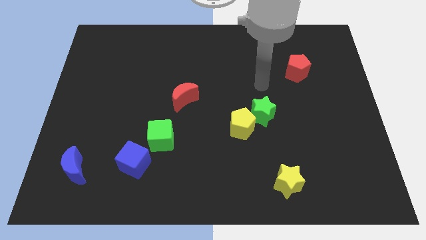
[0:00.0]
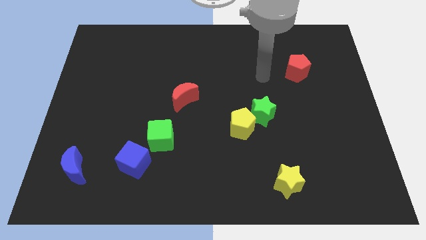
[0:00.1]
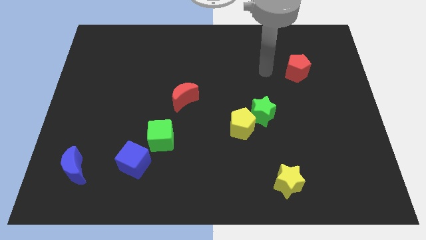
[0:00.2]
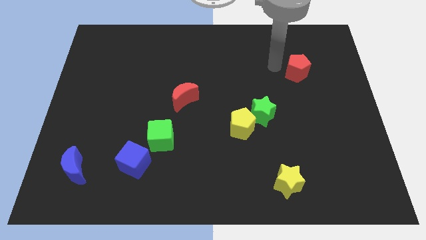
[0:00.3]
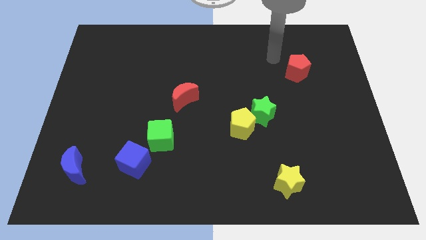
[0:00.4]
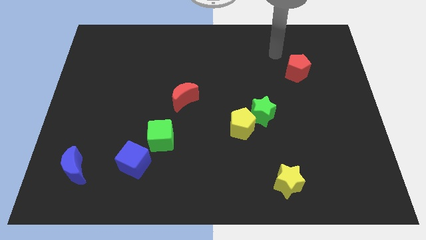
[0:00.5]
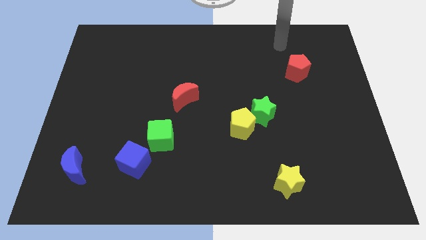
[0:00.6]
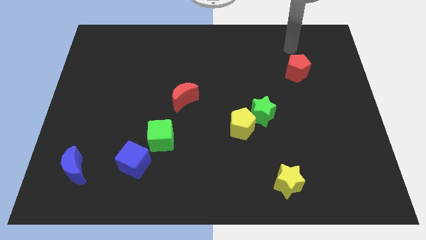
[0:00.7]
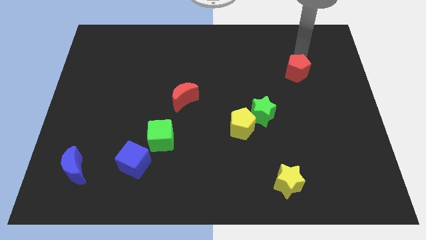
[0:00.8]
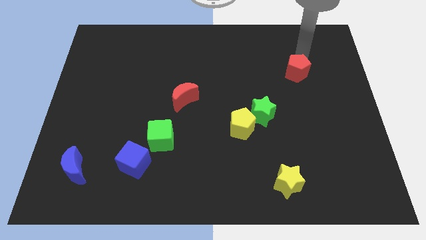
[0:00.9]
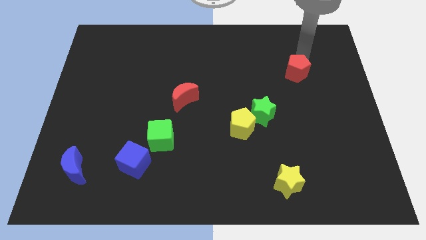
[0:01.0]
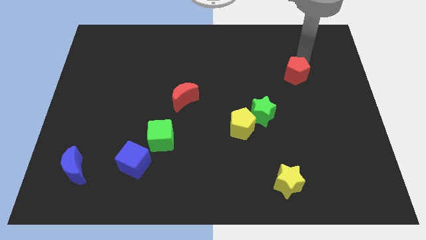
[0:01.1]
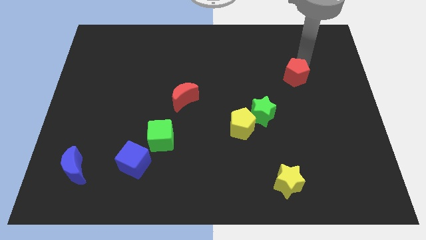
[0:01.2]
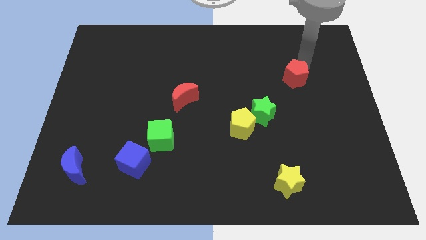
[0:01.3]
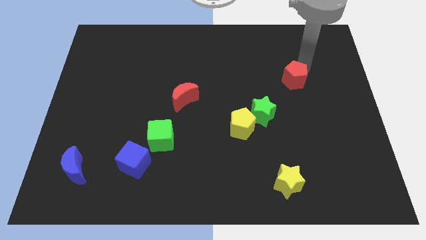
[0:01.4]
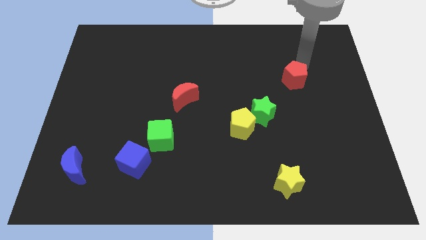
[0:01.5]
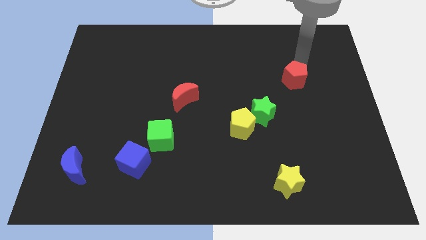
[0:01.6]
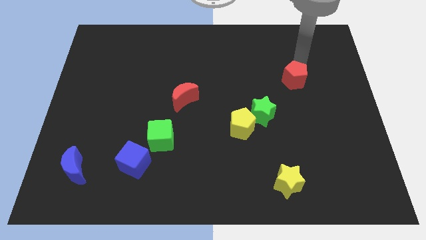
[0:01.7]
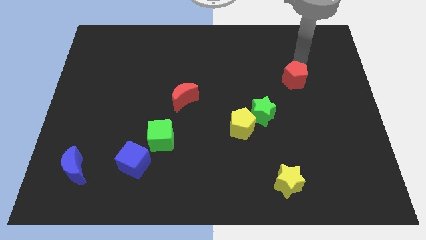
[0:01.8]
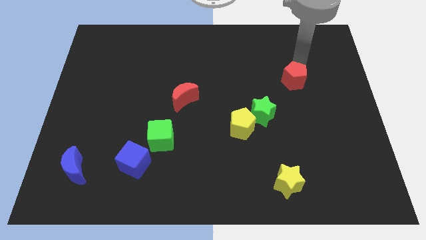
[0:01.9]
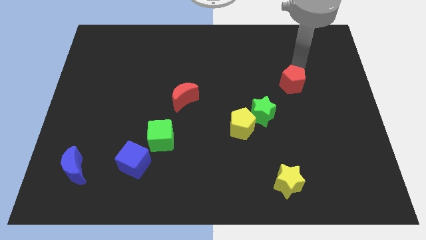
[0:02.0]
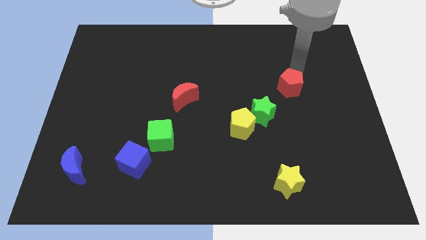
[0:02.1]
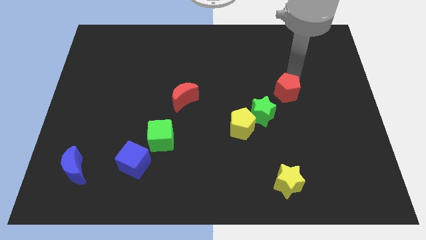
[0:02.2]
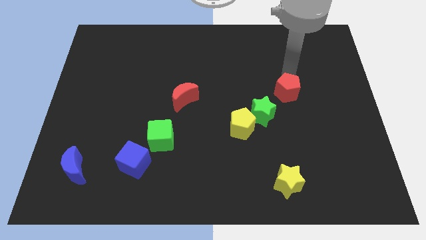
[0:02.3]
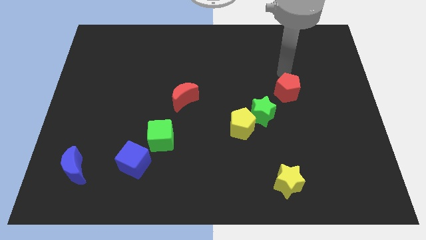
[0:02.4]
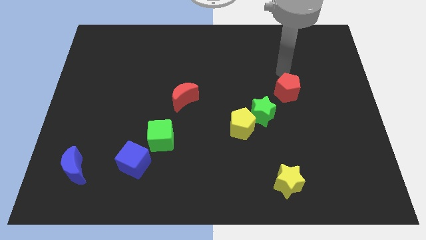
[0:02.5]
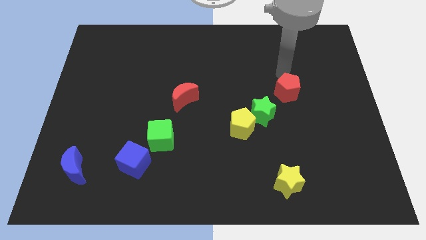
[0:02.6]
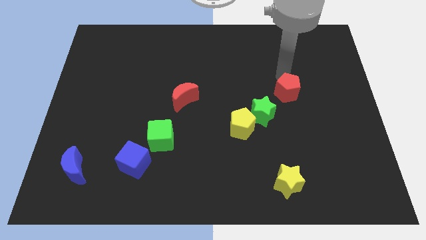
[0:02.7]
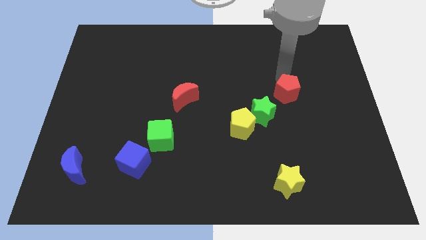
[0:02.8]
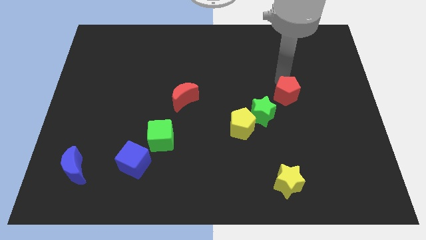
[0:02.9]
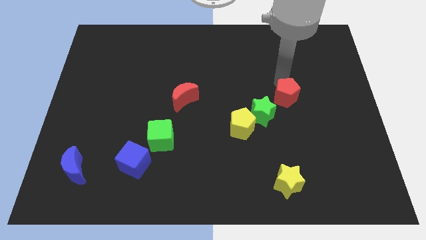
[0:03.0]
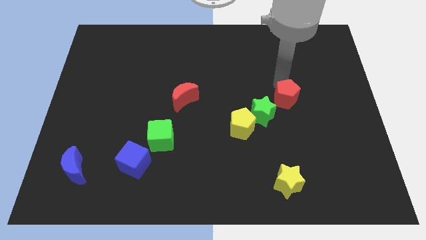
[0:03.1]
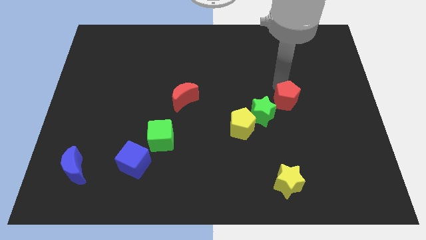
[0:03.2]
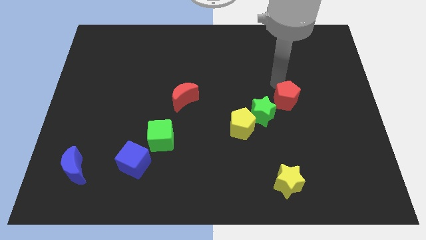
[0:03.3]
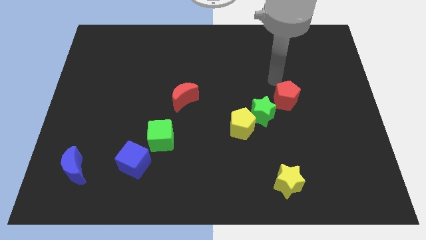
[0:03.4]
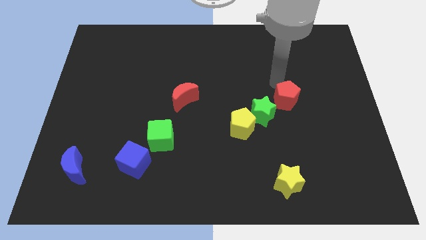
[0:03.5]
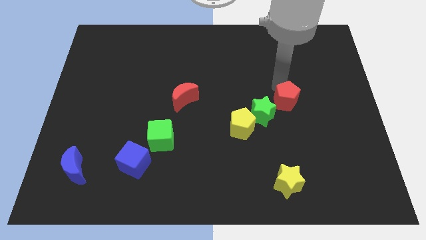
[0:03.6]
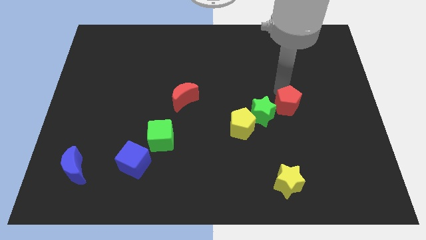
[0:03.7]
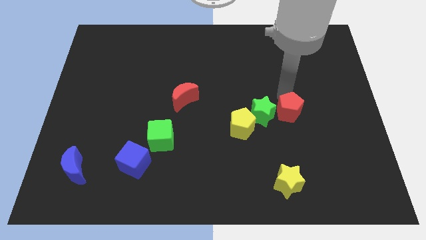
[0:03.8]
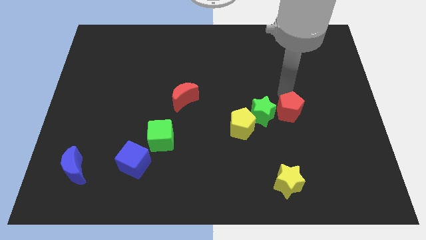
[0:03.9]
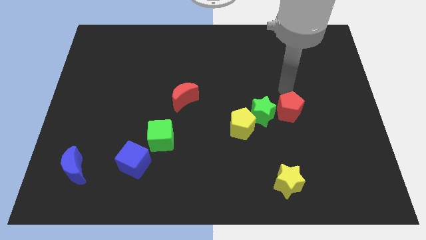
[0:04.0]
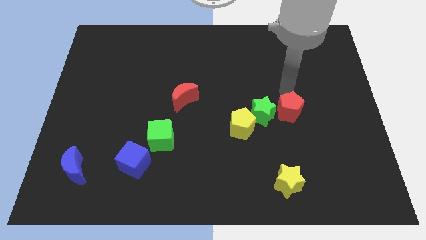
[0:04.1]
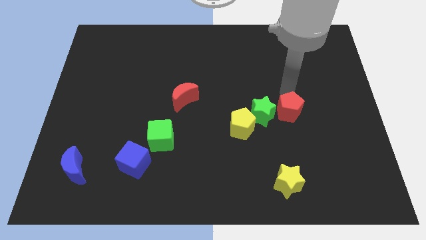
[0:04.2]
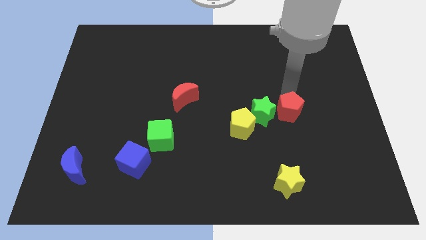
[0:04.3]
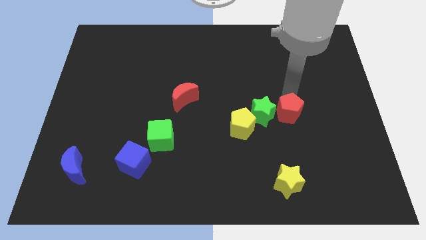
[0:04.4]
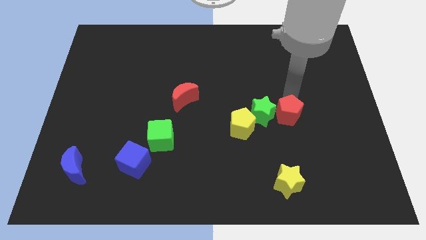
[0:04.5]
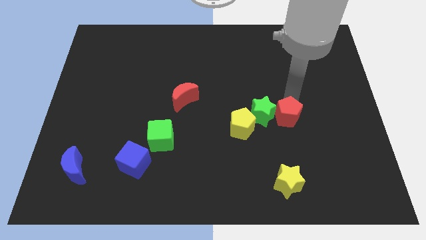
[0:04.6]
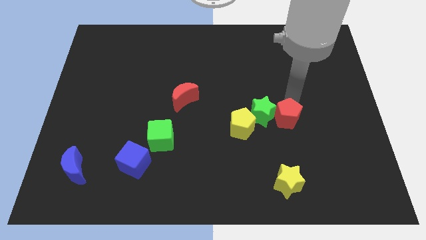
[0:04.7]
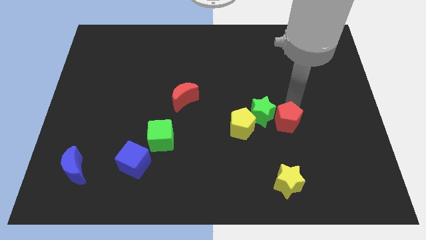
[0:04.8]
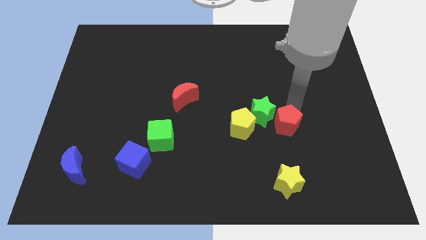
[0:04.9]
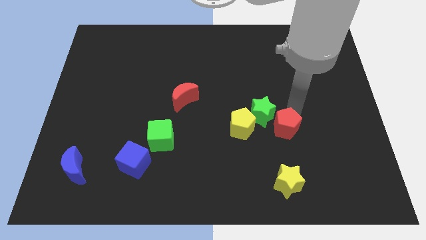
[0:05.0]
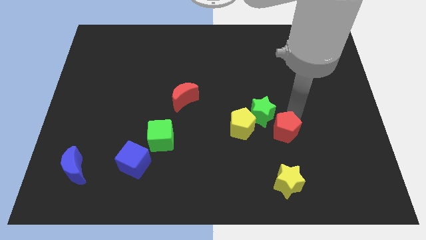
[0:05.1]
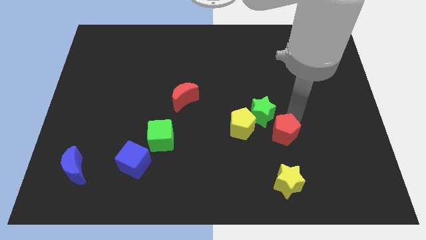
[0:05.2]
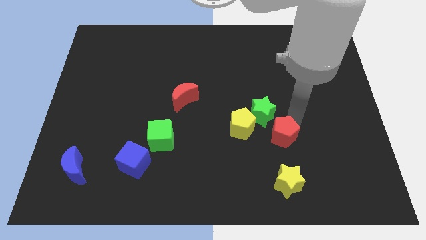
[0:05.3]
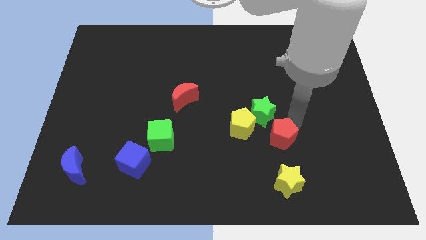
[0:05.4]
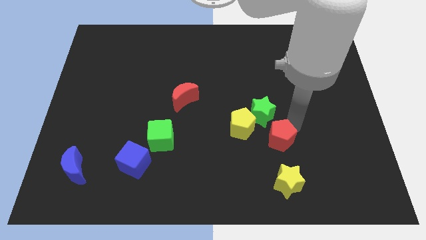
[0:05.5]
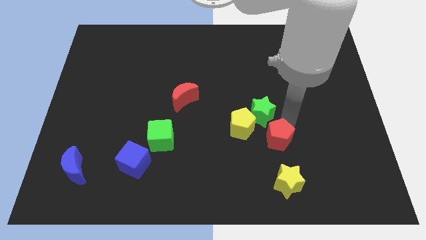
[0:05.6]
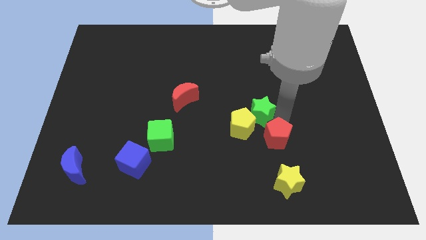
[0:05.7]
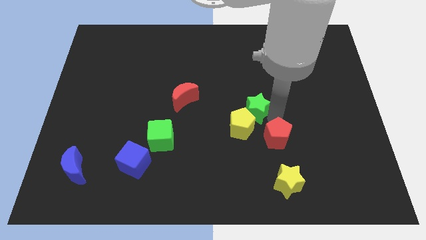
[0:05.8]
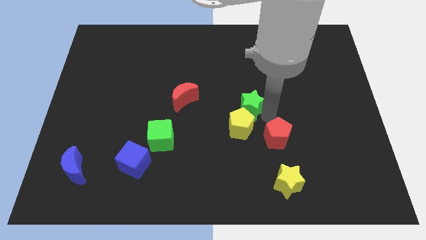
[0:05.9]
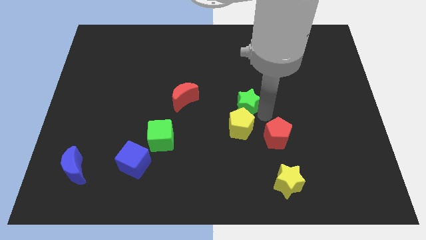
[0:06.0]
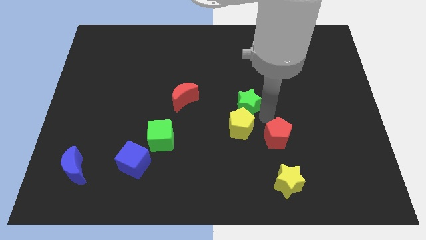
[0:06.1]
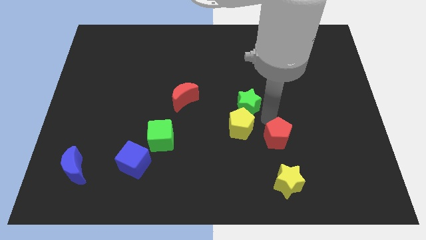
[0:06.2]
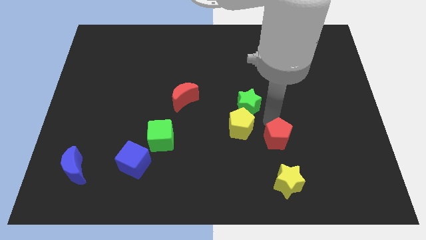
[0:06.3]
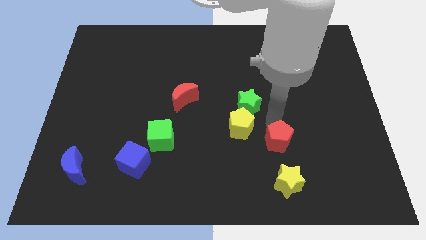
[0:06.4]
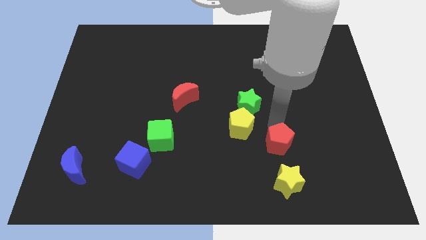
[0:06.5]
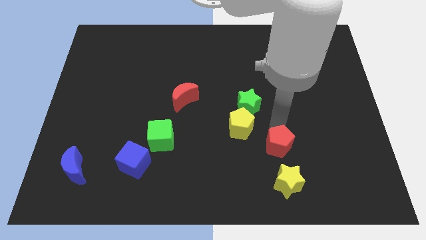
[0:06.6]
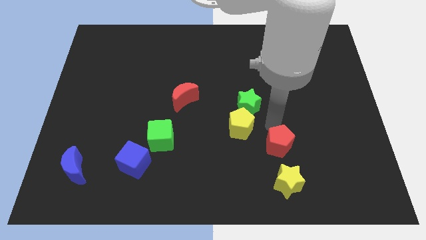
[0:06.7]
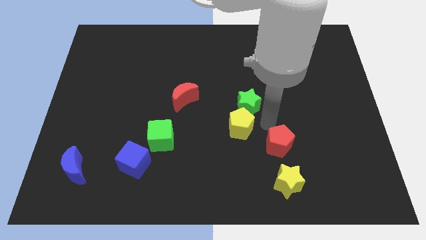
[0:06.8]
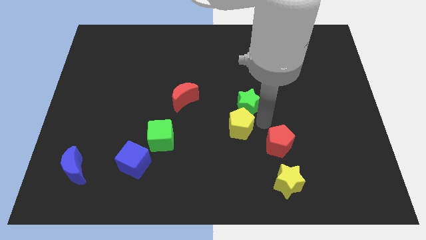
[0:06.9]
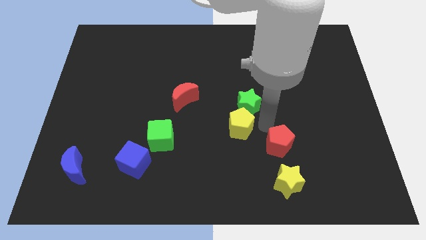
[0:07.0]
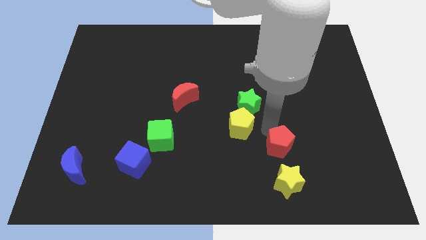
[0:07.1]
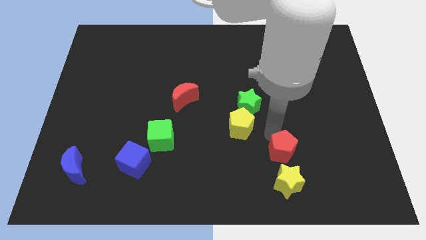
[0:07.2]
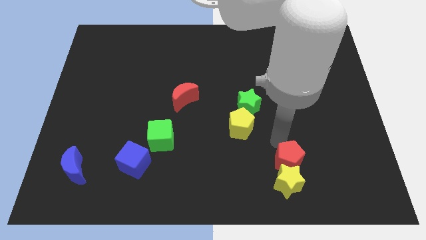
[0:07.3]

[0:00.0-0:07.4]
move the red pentagon to the yellow star
